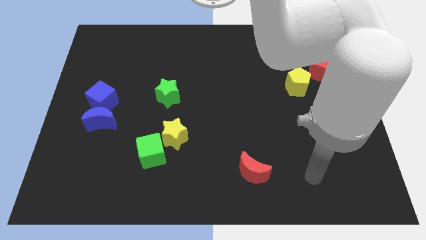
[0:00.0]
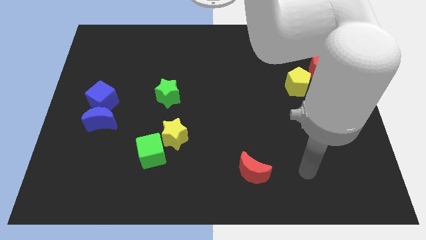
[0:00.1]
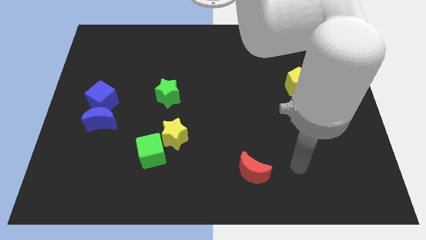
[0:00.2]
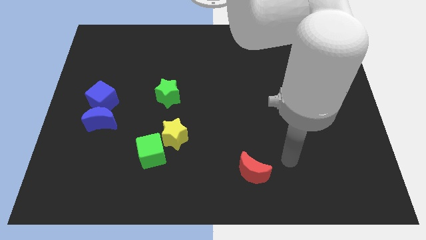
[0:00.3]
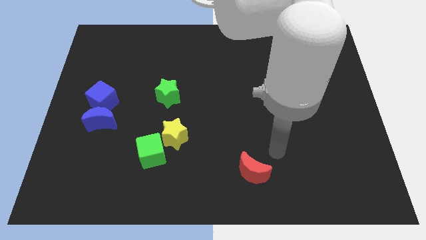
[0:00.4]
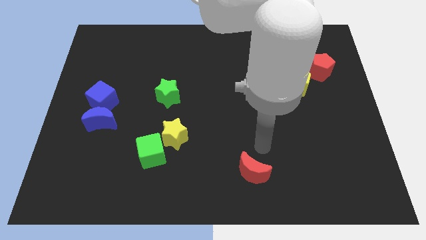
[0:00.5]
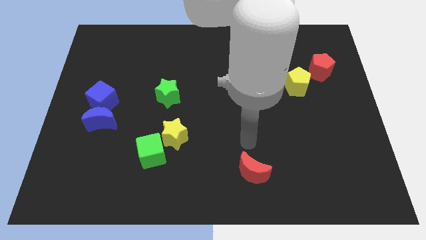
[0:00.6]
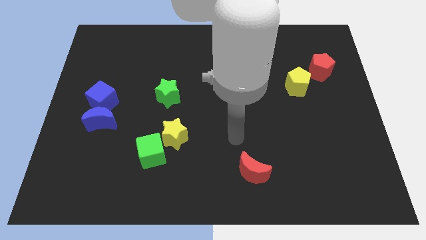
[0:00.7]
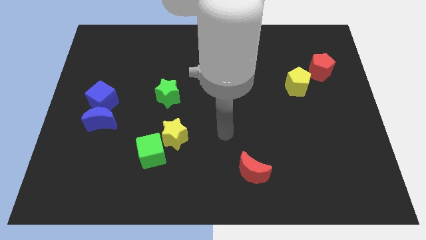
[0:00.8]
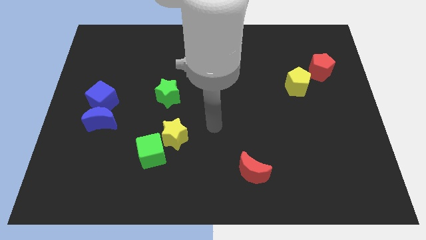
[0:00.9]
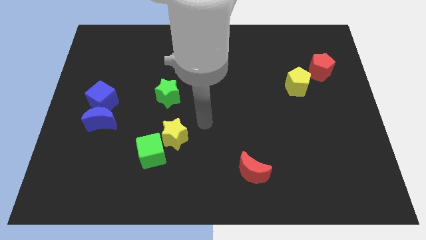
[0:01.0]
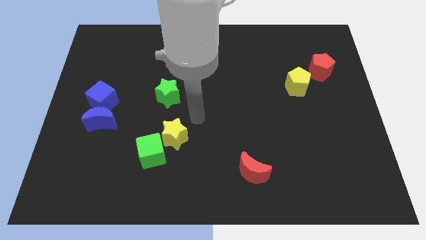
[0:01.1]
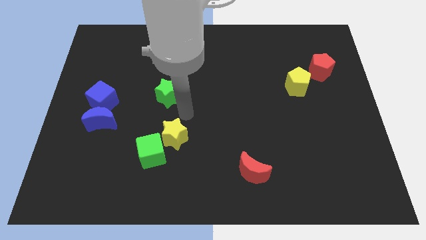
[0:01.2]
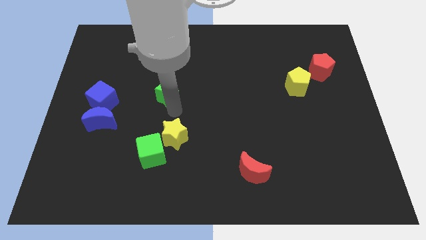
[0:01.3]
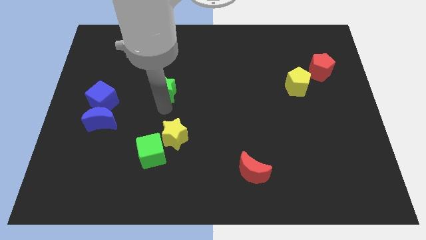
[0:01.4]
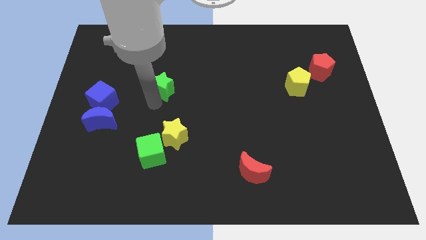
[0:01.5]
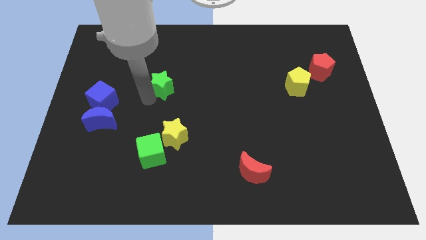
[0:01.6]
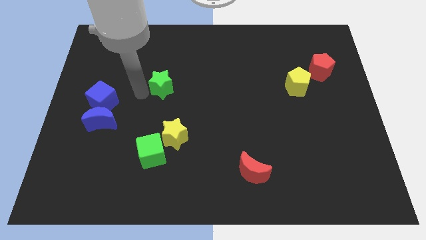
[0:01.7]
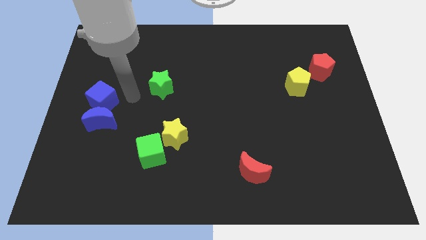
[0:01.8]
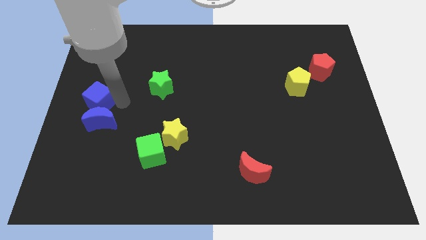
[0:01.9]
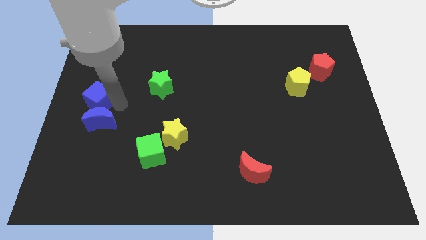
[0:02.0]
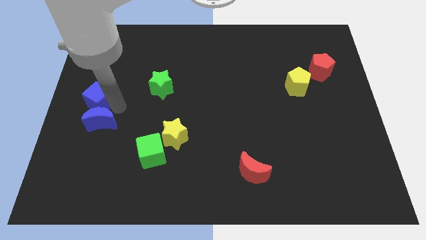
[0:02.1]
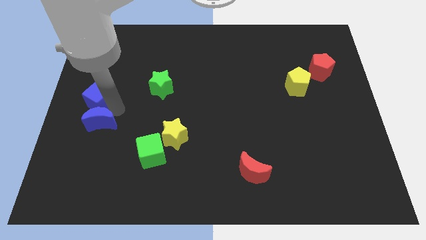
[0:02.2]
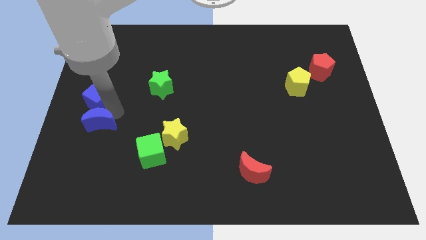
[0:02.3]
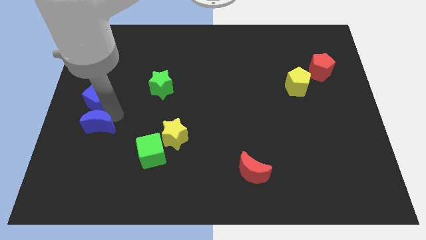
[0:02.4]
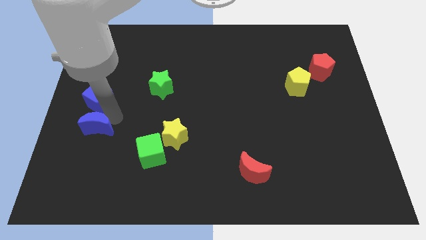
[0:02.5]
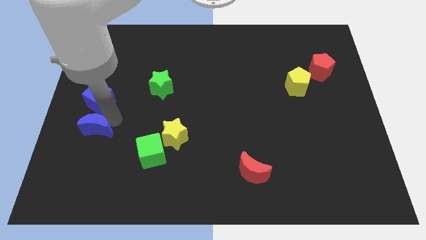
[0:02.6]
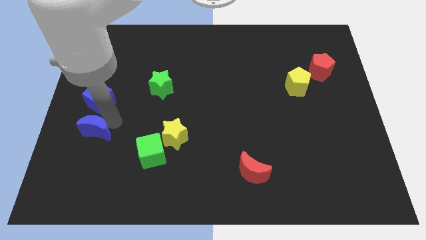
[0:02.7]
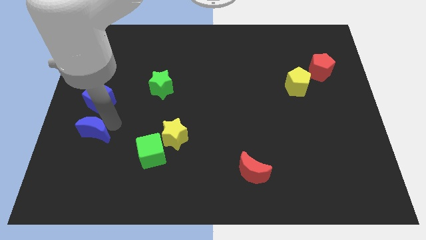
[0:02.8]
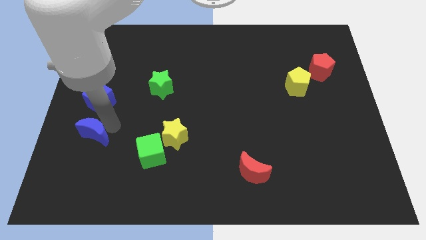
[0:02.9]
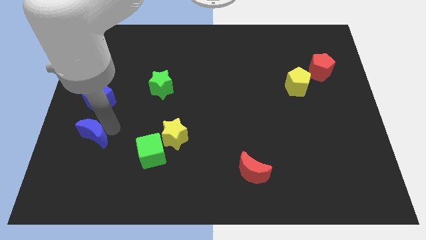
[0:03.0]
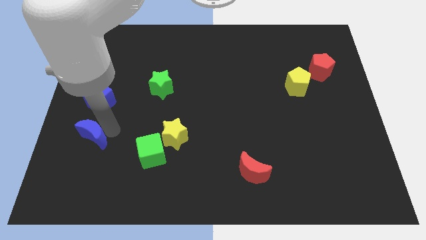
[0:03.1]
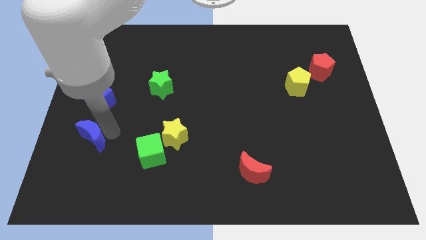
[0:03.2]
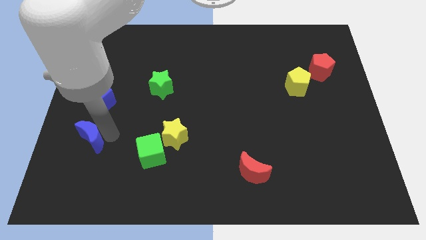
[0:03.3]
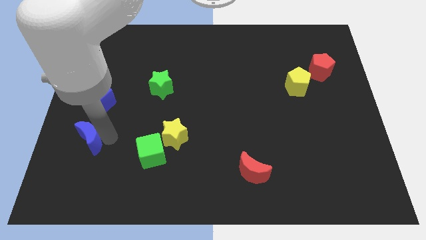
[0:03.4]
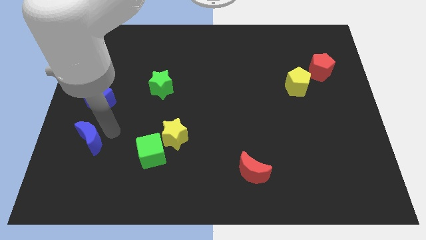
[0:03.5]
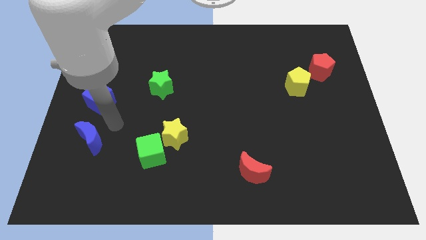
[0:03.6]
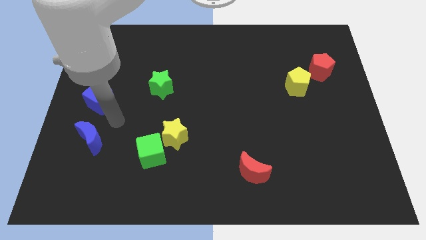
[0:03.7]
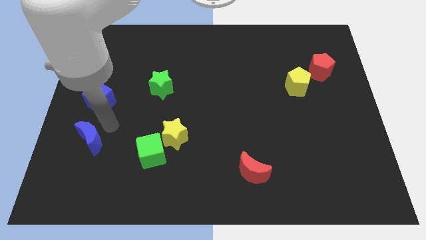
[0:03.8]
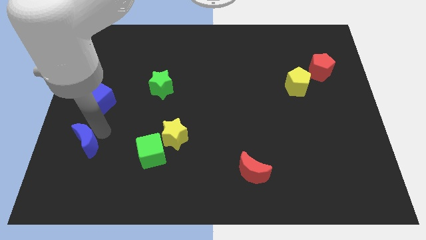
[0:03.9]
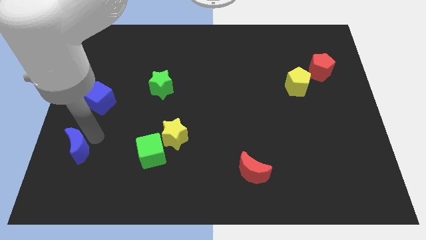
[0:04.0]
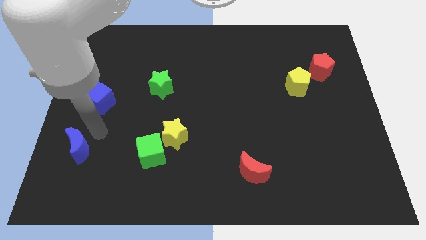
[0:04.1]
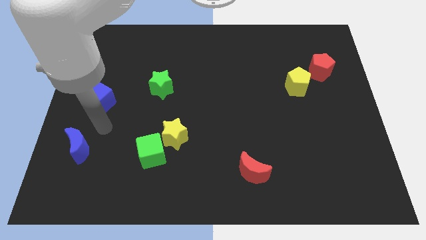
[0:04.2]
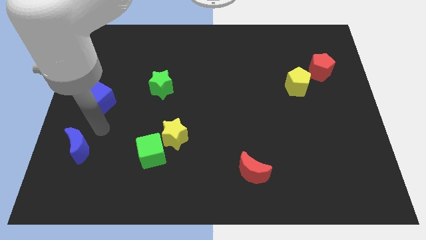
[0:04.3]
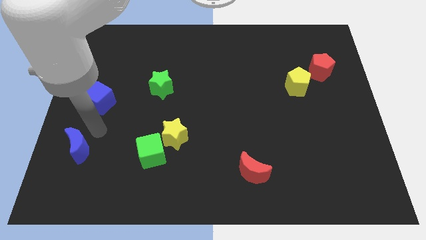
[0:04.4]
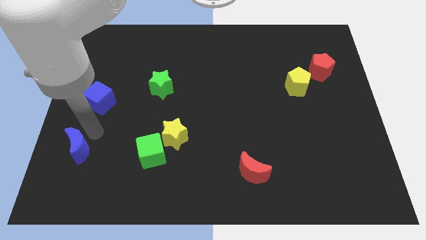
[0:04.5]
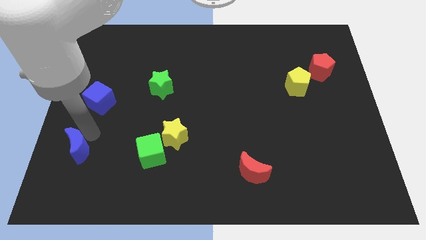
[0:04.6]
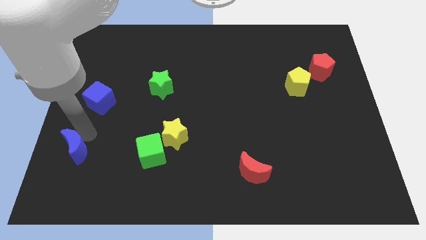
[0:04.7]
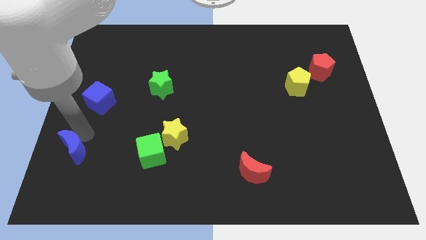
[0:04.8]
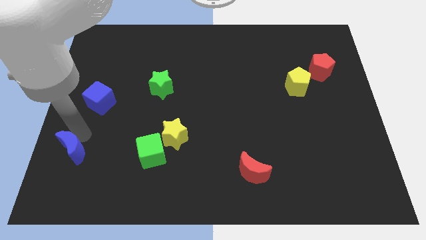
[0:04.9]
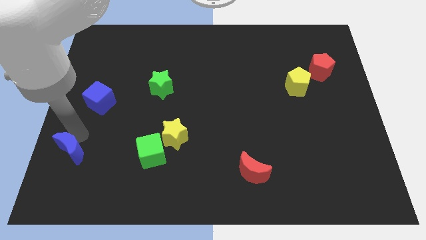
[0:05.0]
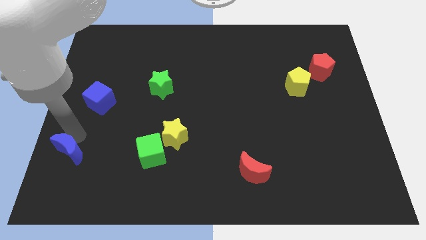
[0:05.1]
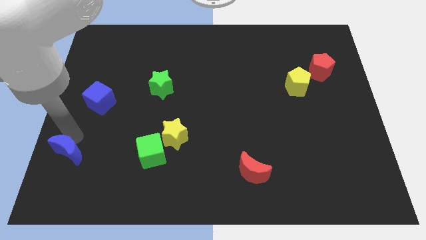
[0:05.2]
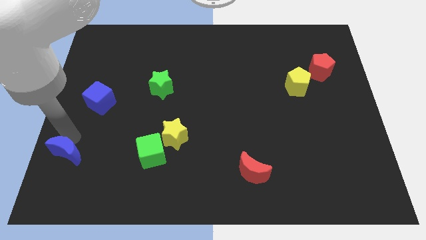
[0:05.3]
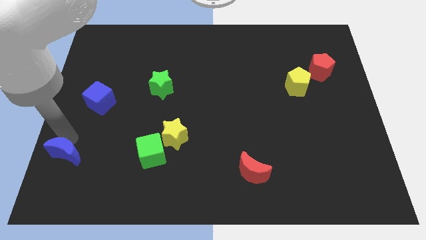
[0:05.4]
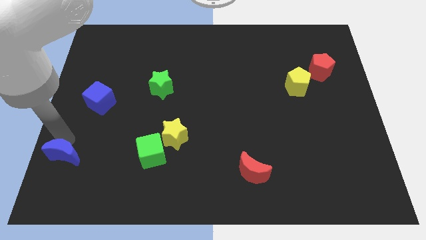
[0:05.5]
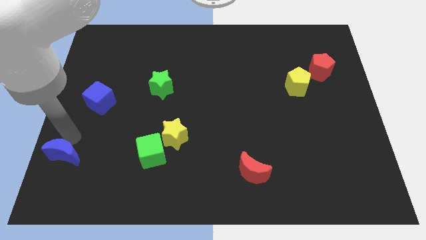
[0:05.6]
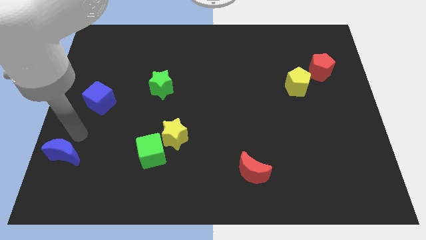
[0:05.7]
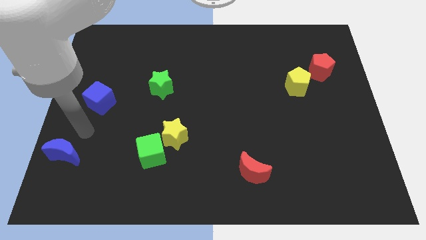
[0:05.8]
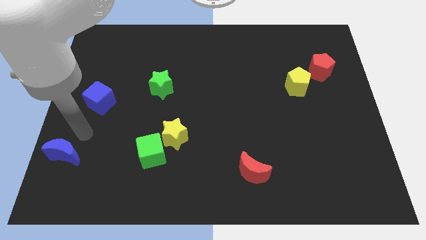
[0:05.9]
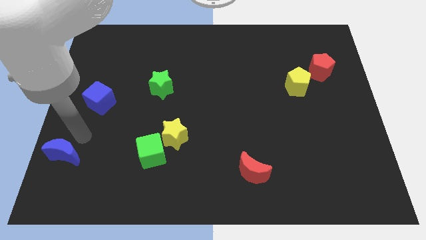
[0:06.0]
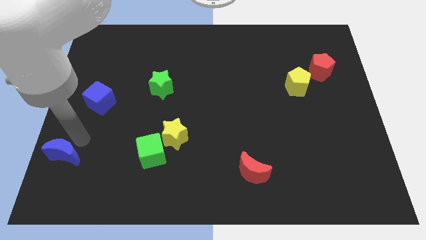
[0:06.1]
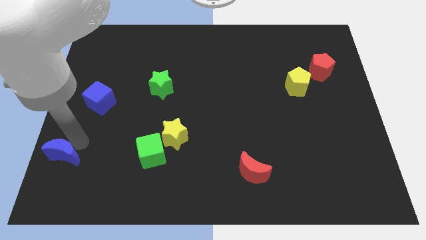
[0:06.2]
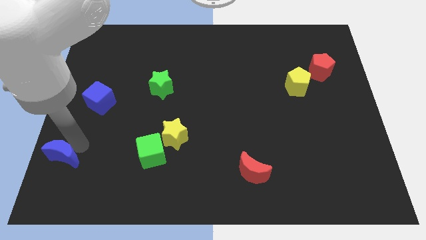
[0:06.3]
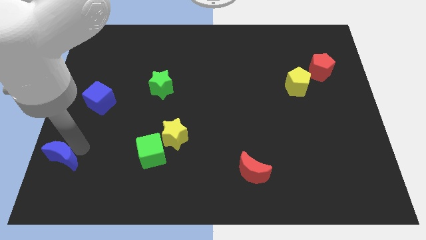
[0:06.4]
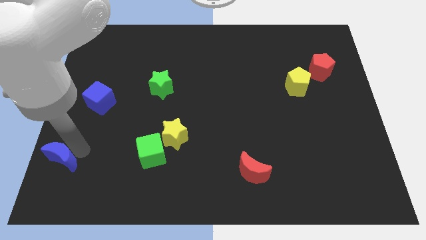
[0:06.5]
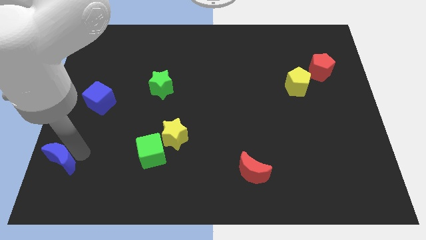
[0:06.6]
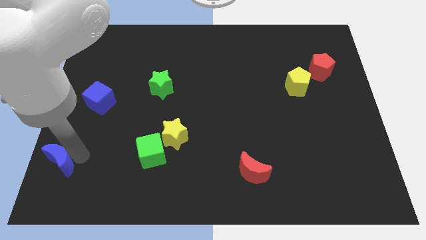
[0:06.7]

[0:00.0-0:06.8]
put the blue moon to the lower left corner

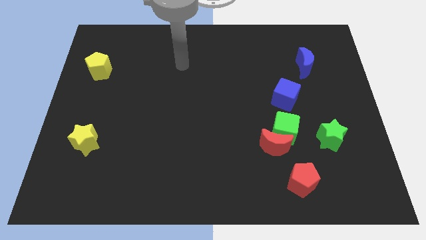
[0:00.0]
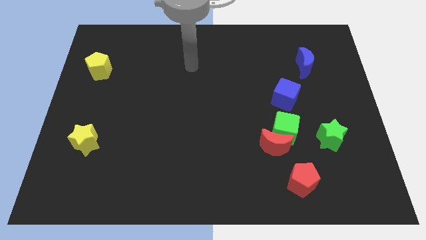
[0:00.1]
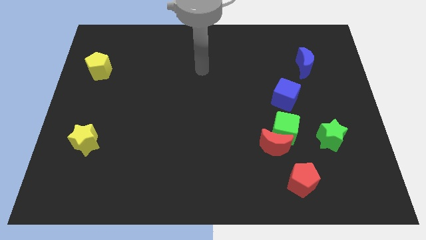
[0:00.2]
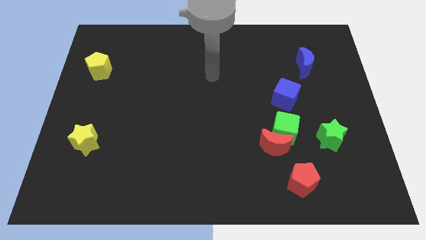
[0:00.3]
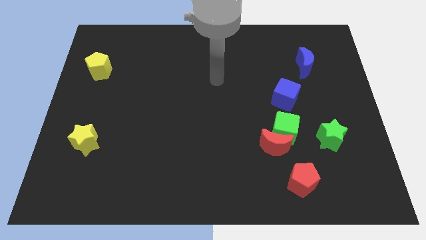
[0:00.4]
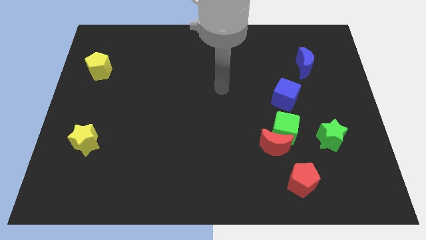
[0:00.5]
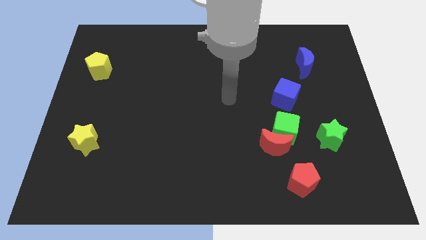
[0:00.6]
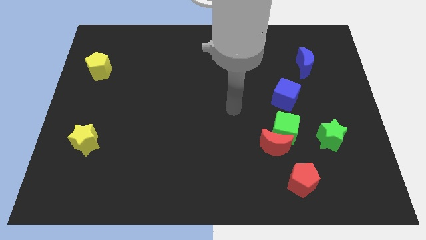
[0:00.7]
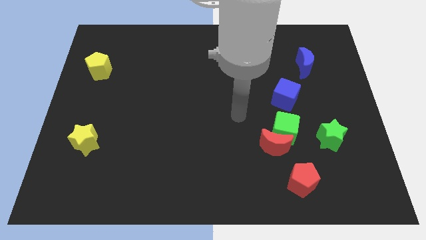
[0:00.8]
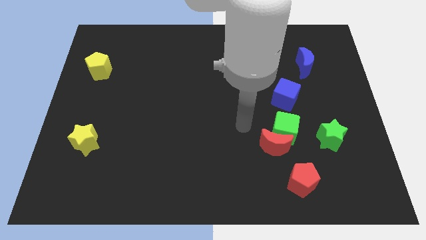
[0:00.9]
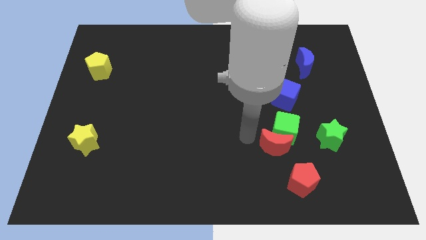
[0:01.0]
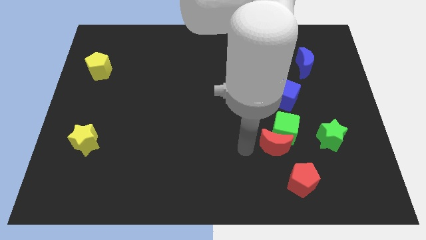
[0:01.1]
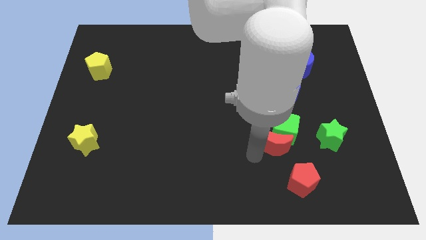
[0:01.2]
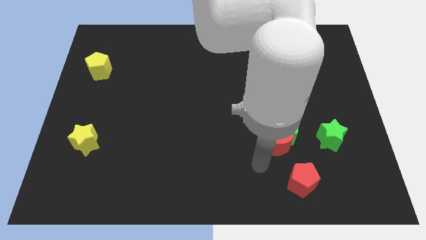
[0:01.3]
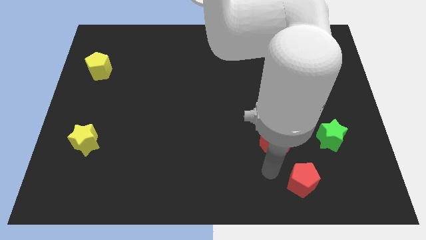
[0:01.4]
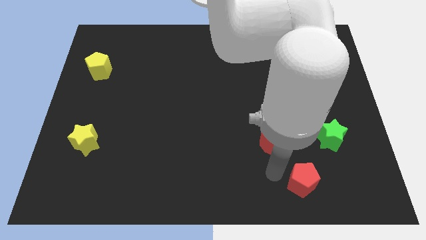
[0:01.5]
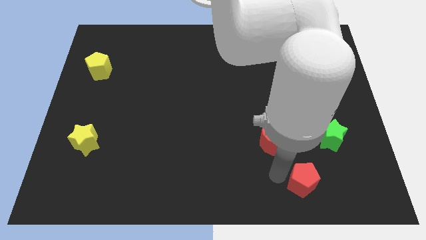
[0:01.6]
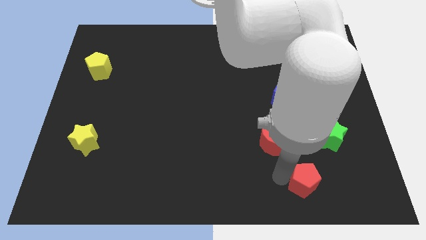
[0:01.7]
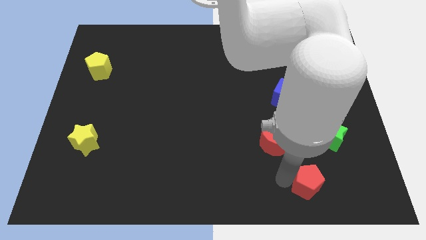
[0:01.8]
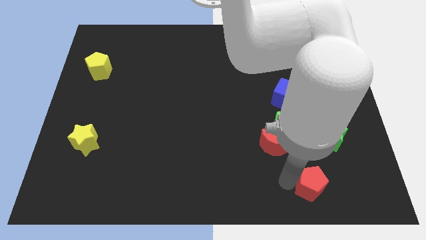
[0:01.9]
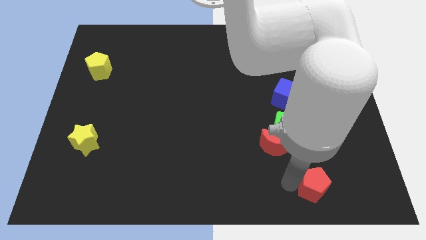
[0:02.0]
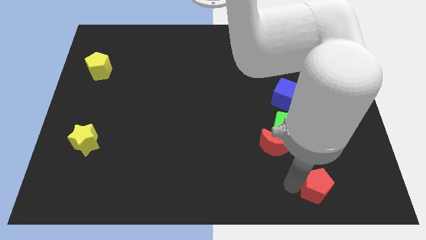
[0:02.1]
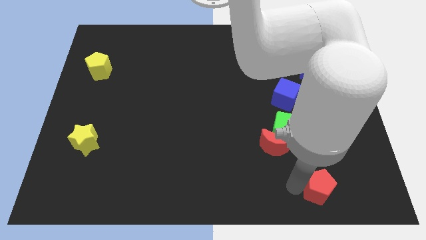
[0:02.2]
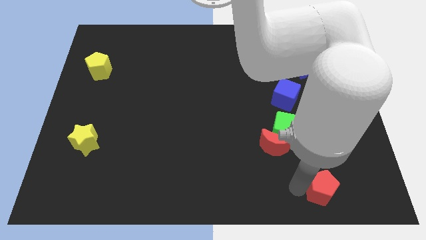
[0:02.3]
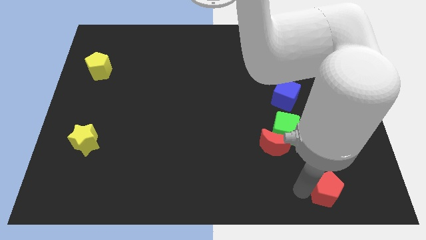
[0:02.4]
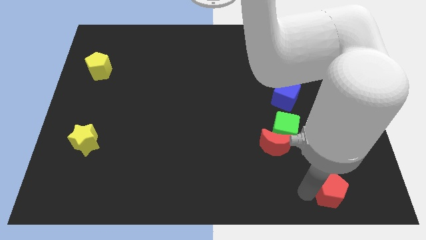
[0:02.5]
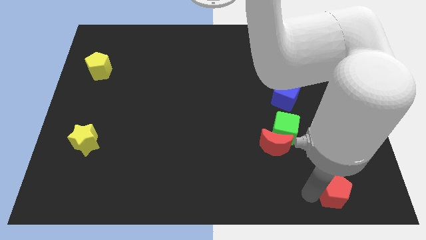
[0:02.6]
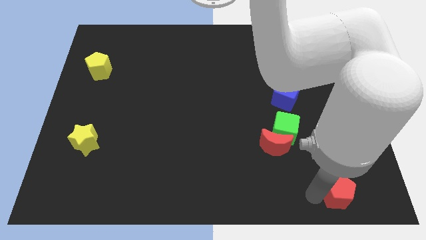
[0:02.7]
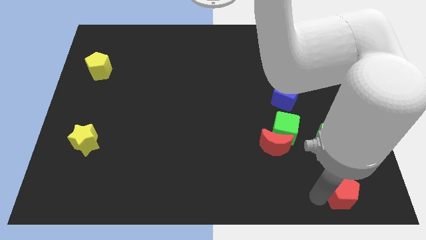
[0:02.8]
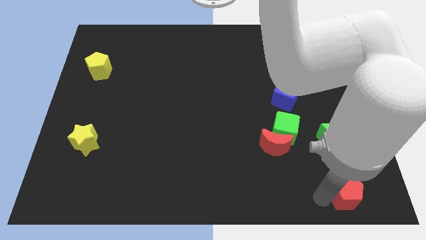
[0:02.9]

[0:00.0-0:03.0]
slide the red pentagon to the bottom right of the board
